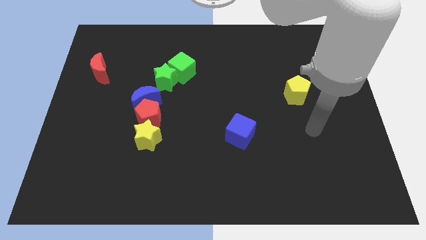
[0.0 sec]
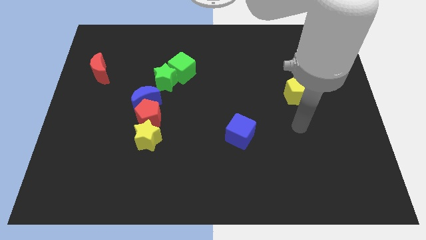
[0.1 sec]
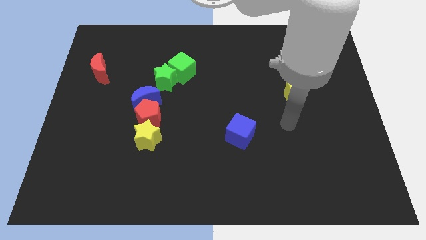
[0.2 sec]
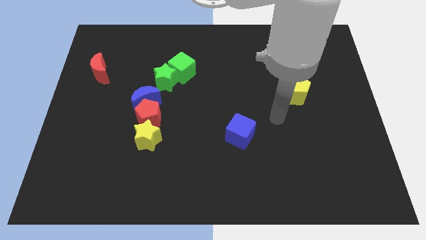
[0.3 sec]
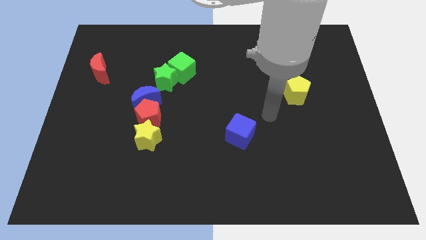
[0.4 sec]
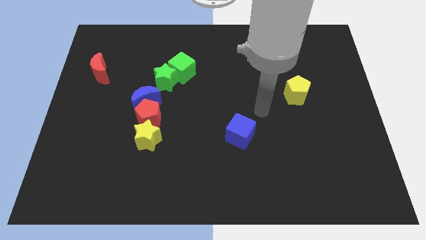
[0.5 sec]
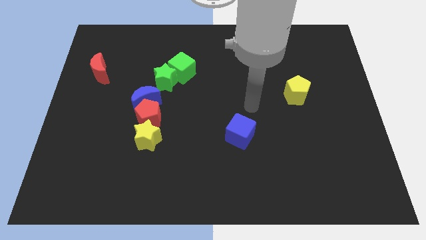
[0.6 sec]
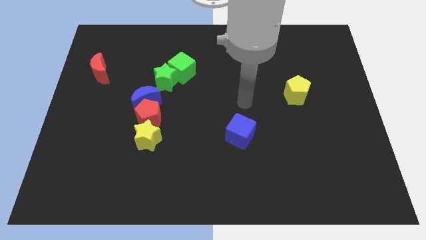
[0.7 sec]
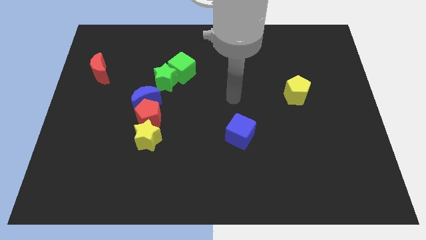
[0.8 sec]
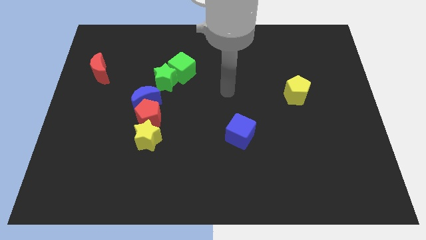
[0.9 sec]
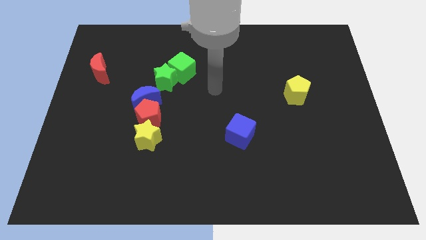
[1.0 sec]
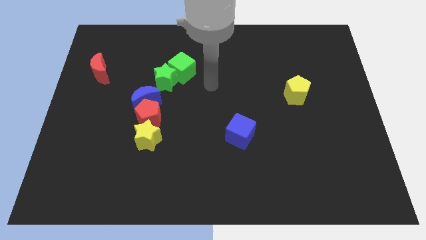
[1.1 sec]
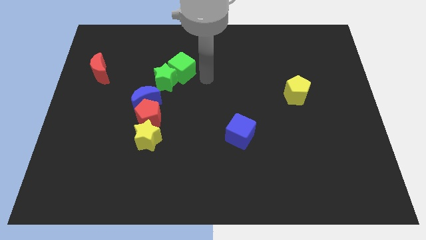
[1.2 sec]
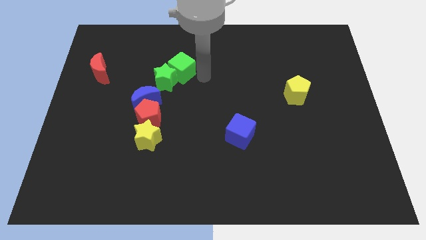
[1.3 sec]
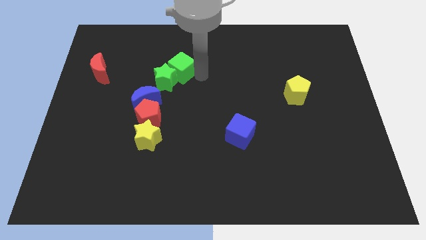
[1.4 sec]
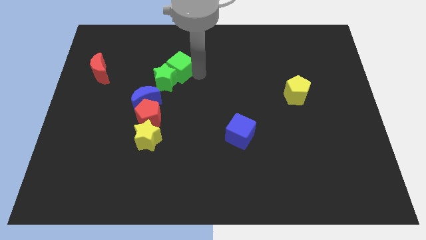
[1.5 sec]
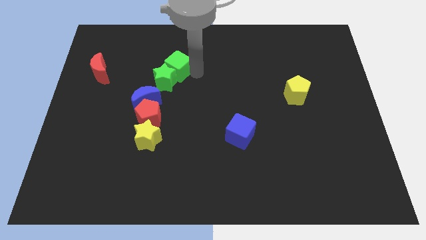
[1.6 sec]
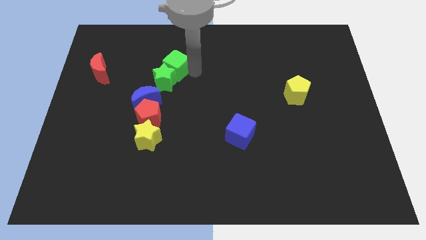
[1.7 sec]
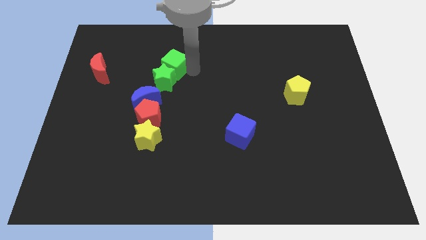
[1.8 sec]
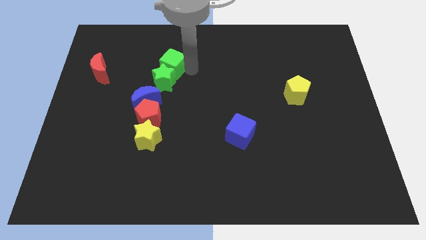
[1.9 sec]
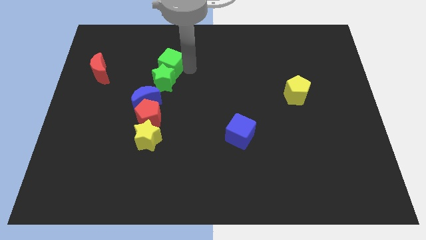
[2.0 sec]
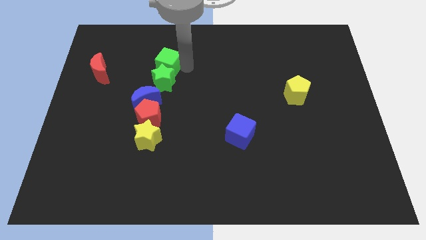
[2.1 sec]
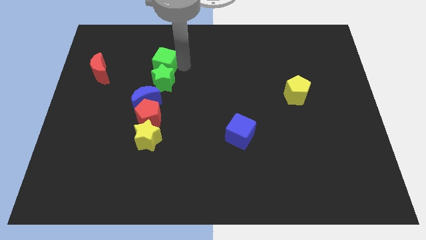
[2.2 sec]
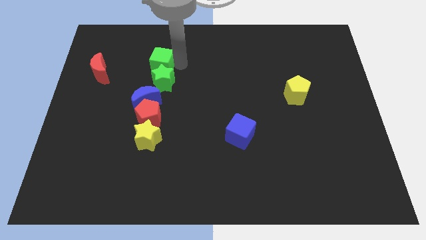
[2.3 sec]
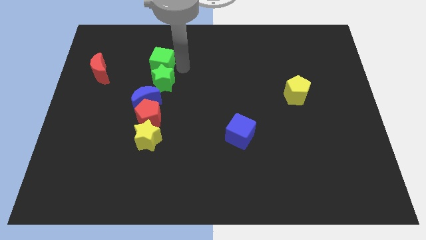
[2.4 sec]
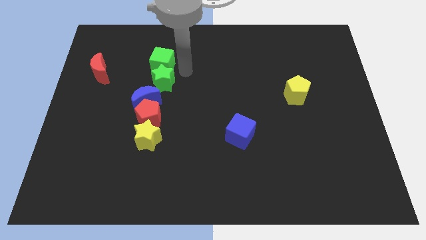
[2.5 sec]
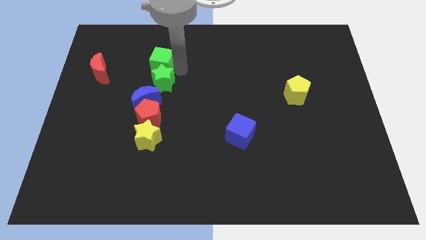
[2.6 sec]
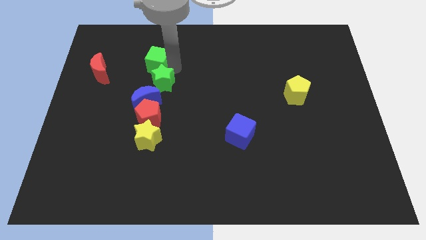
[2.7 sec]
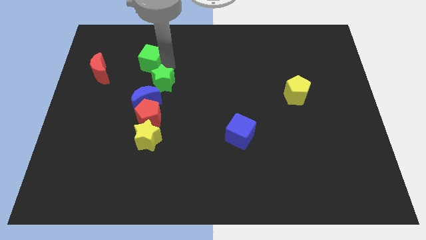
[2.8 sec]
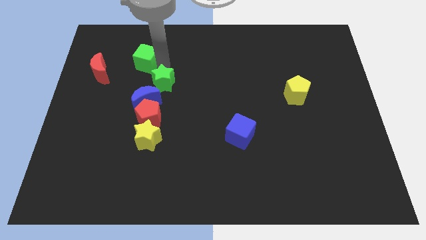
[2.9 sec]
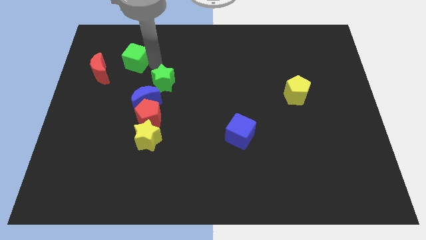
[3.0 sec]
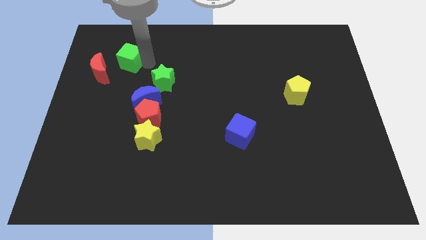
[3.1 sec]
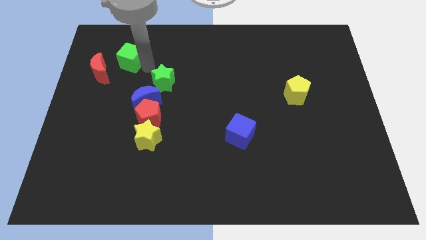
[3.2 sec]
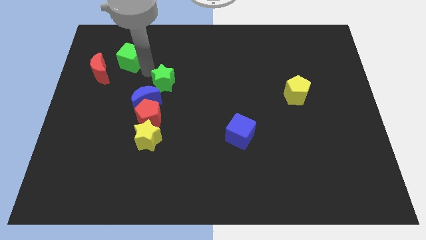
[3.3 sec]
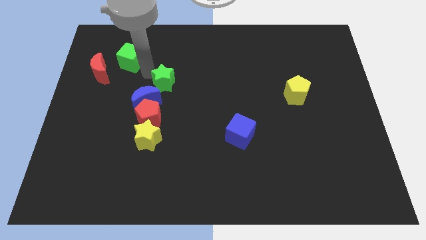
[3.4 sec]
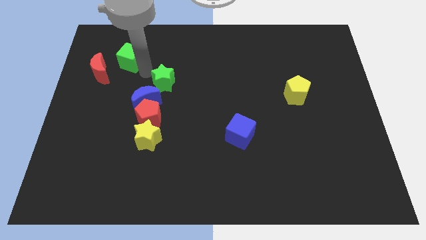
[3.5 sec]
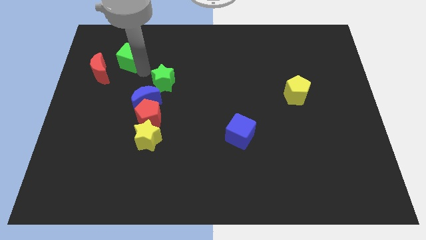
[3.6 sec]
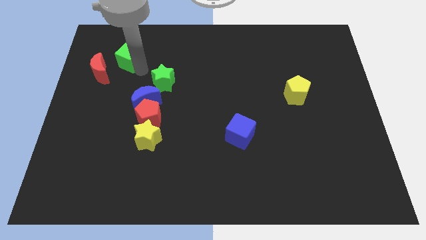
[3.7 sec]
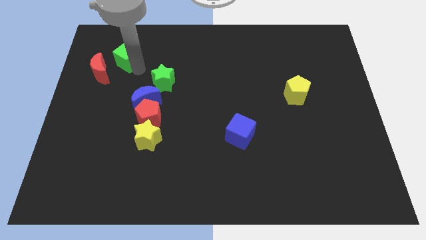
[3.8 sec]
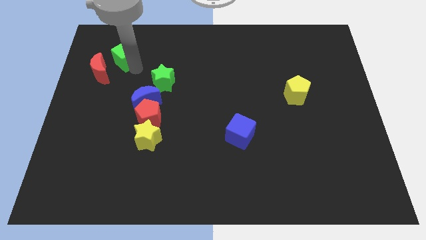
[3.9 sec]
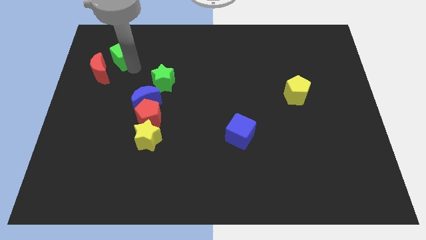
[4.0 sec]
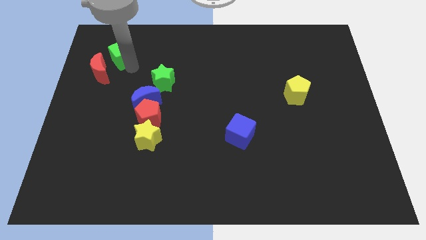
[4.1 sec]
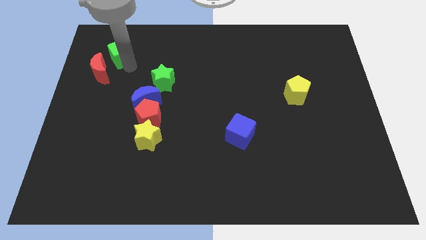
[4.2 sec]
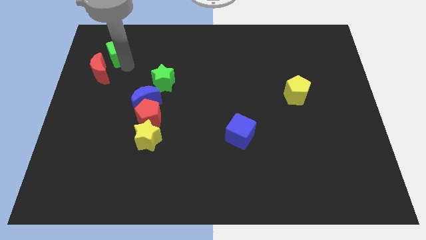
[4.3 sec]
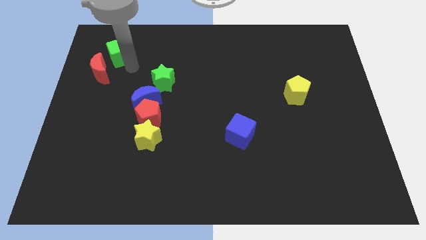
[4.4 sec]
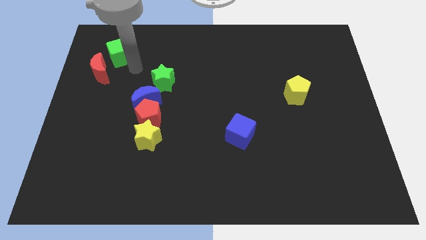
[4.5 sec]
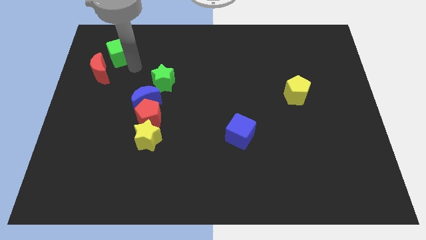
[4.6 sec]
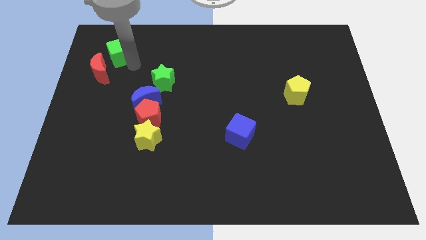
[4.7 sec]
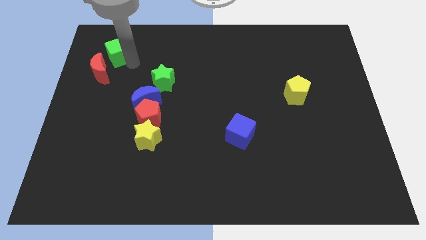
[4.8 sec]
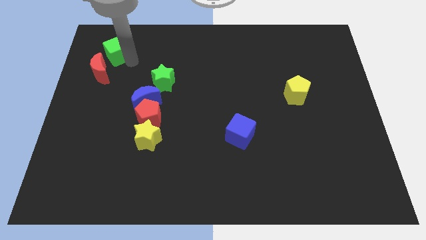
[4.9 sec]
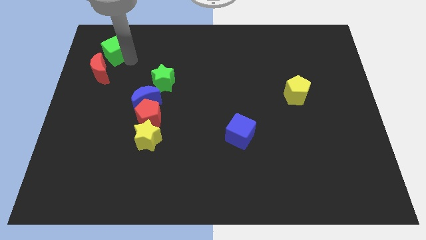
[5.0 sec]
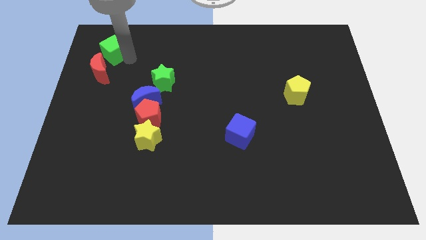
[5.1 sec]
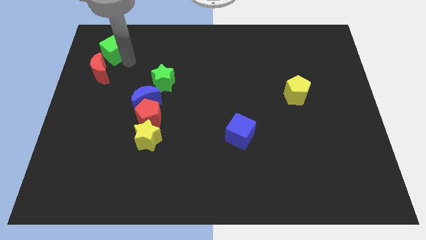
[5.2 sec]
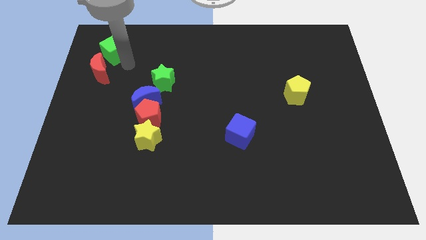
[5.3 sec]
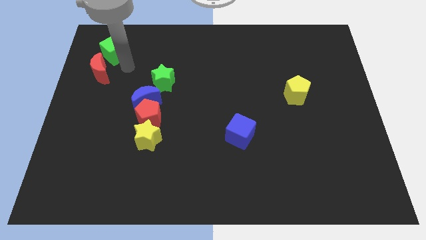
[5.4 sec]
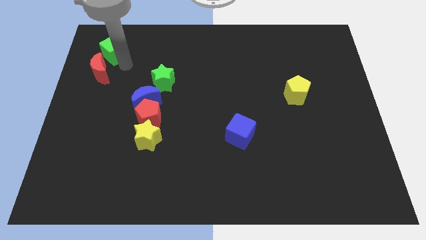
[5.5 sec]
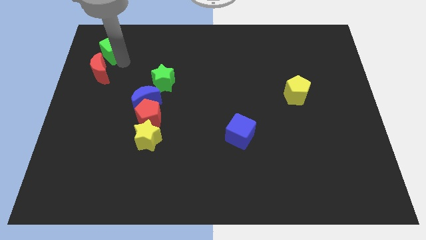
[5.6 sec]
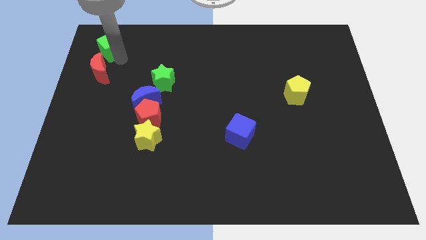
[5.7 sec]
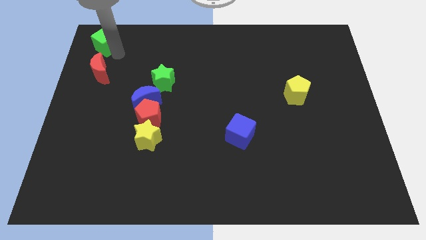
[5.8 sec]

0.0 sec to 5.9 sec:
push the green cube to the top left
